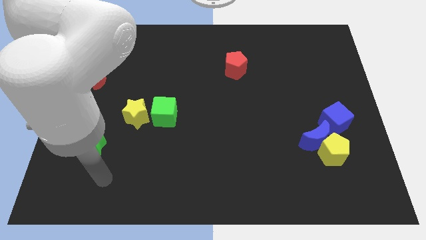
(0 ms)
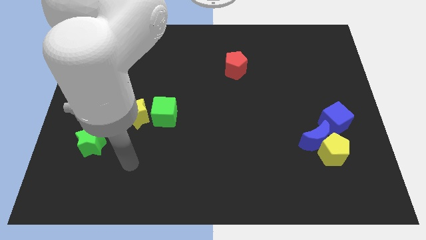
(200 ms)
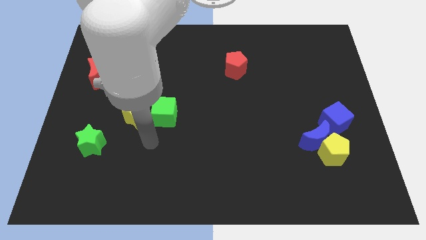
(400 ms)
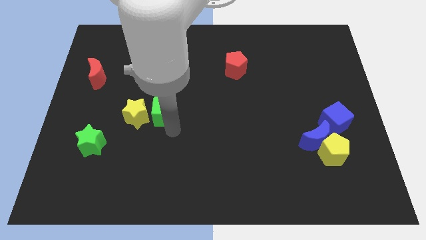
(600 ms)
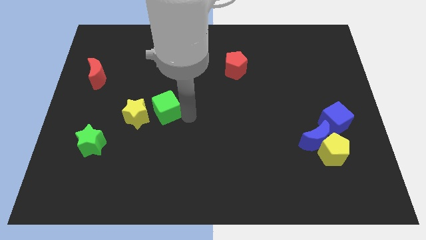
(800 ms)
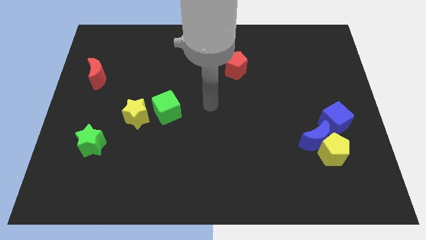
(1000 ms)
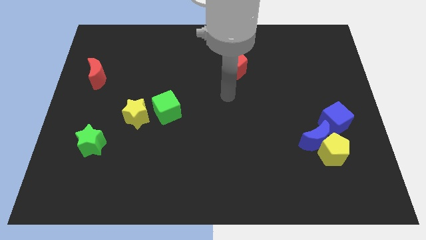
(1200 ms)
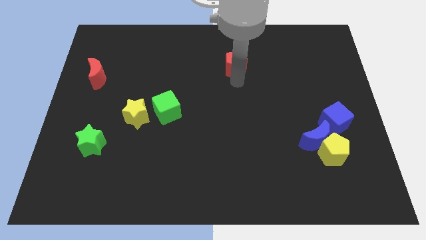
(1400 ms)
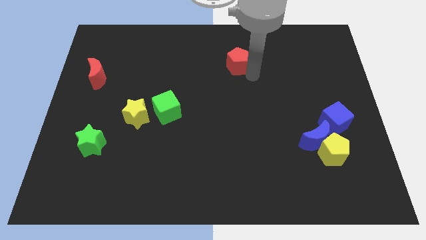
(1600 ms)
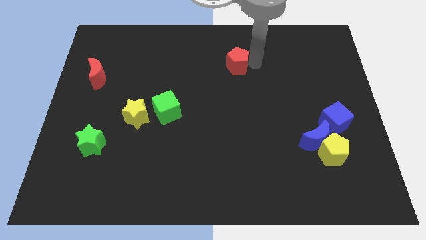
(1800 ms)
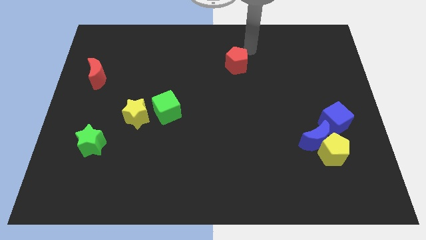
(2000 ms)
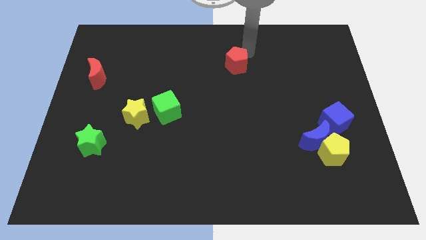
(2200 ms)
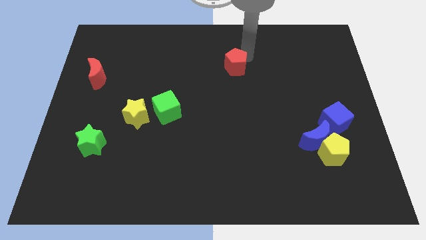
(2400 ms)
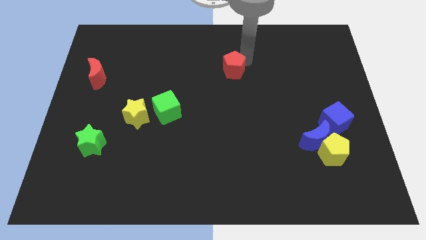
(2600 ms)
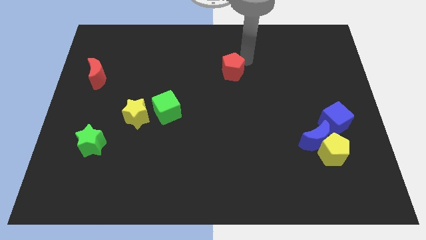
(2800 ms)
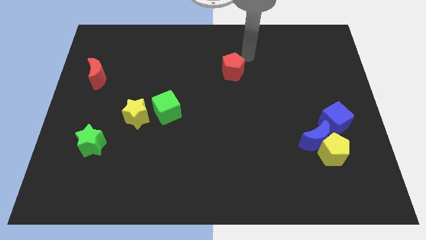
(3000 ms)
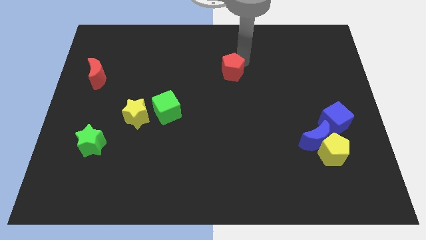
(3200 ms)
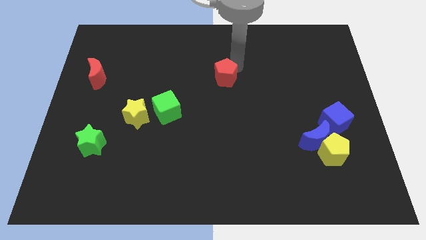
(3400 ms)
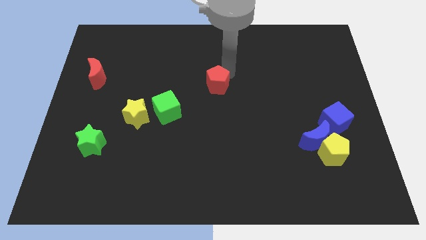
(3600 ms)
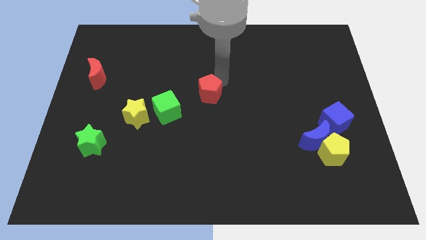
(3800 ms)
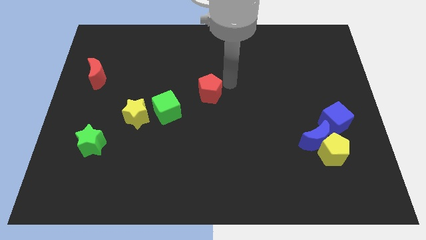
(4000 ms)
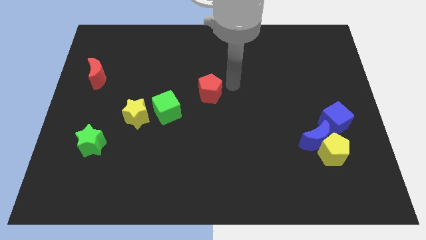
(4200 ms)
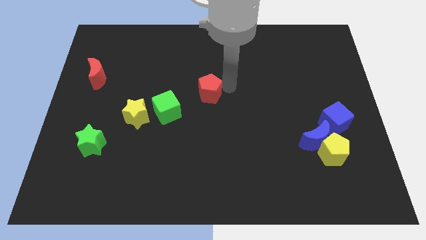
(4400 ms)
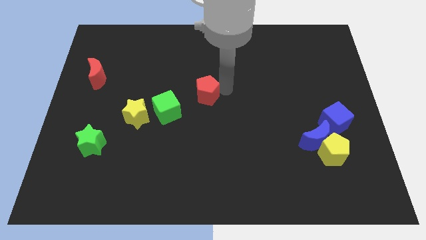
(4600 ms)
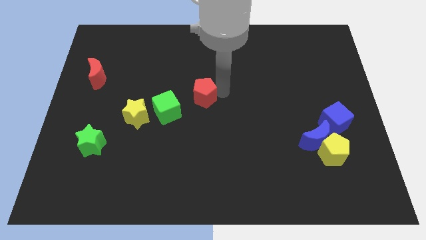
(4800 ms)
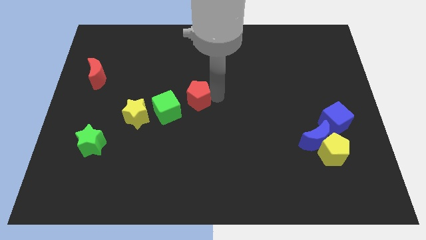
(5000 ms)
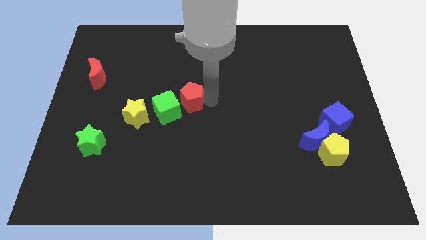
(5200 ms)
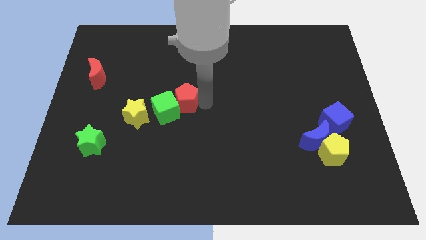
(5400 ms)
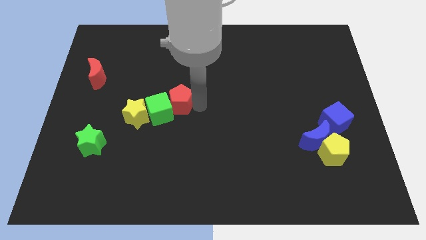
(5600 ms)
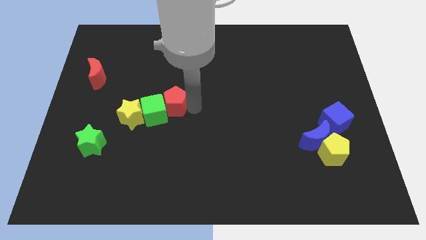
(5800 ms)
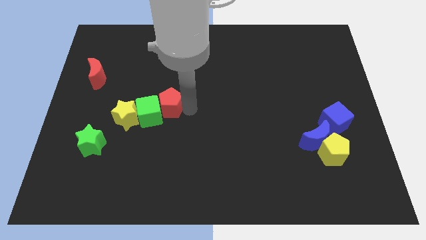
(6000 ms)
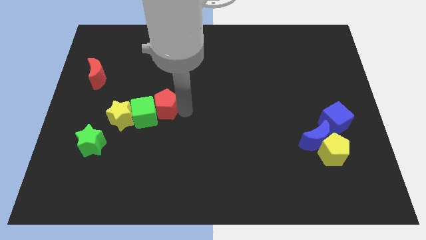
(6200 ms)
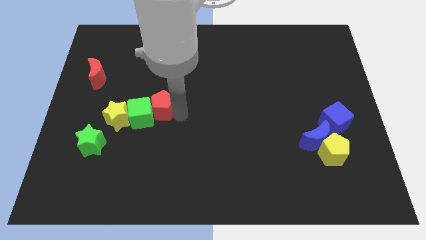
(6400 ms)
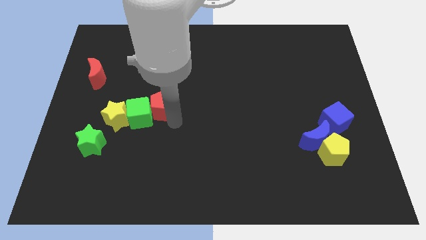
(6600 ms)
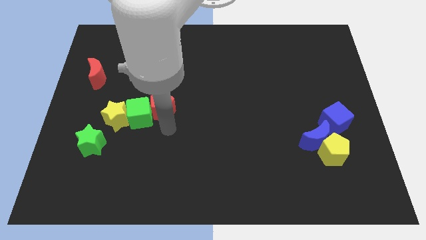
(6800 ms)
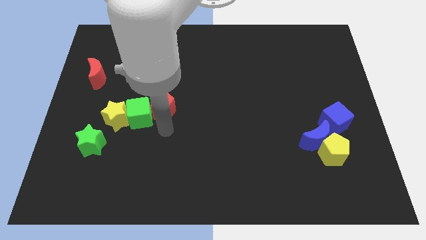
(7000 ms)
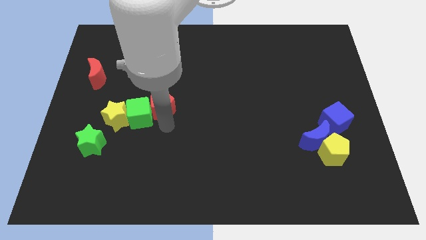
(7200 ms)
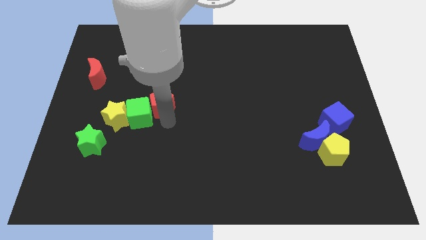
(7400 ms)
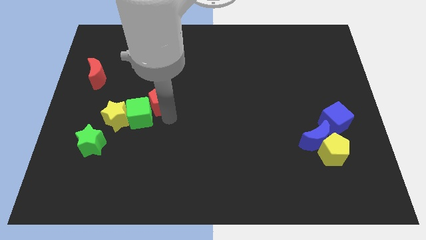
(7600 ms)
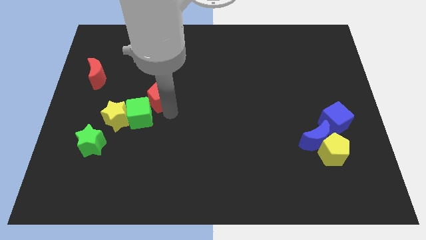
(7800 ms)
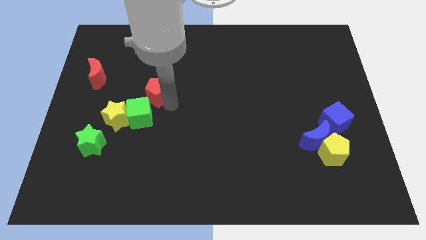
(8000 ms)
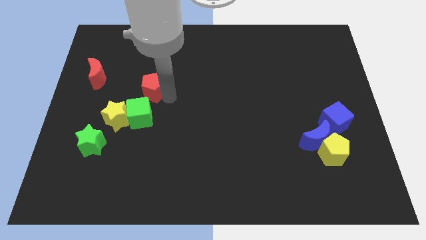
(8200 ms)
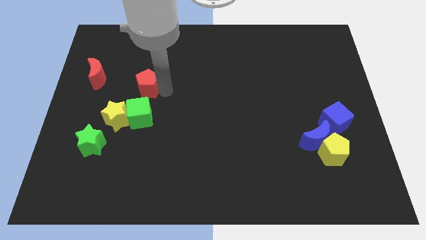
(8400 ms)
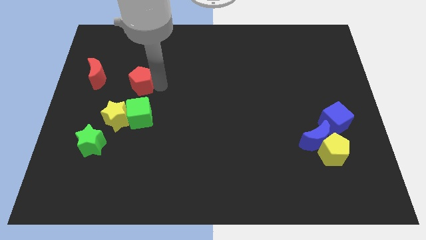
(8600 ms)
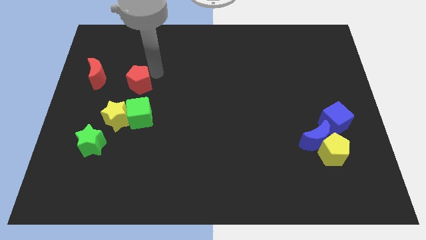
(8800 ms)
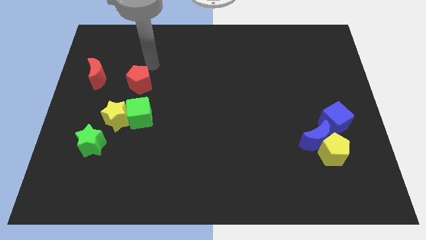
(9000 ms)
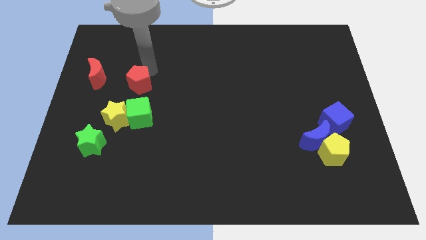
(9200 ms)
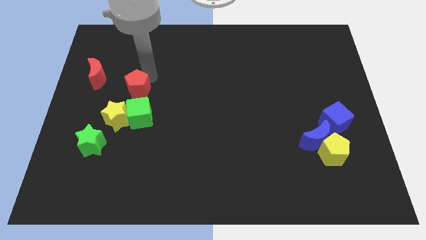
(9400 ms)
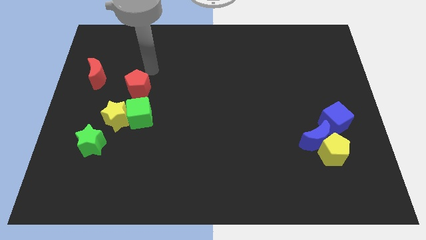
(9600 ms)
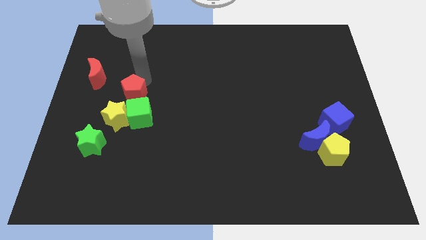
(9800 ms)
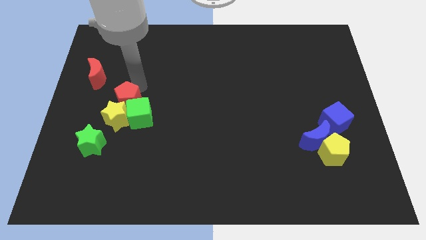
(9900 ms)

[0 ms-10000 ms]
slide the red pentagon towards the yellow star

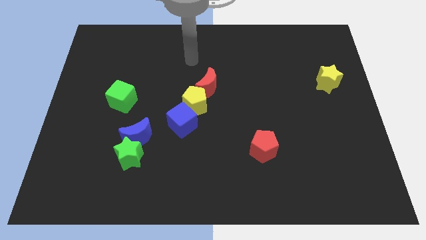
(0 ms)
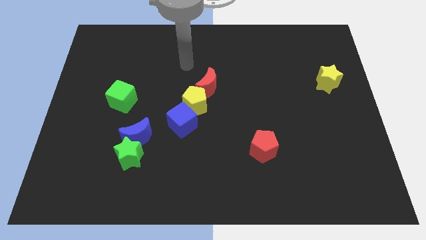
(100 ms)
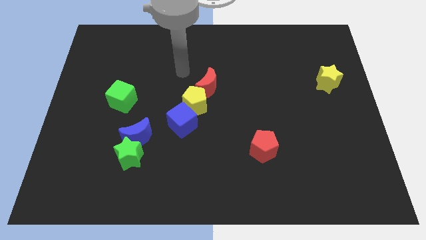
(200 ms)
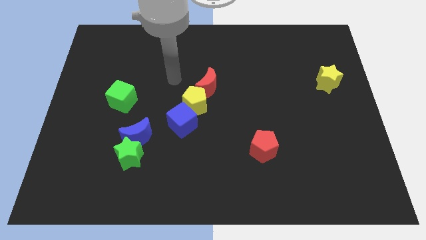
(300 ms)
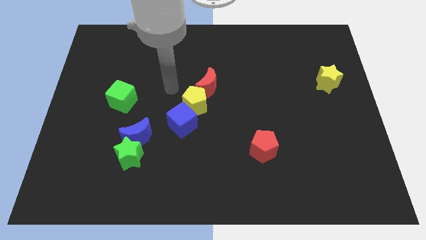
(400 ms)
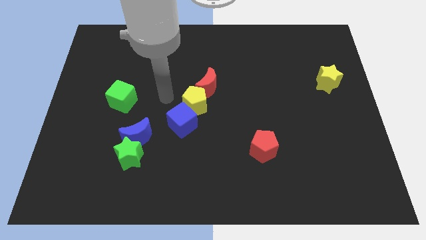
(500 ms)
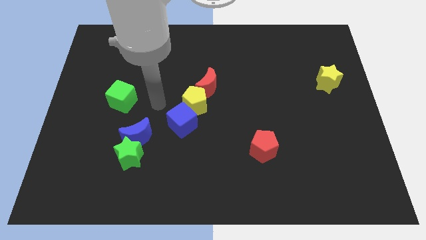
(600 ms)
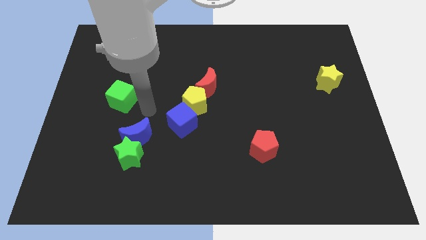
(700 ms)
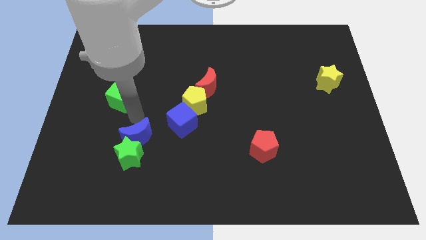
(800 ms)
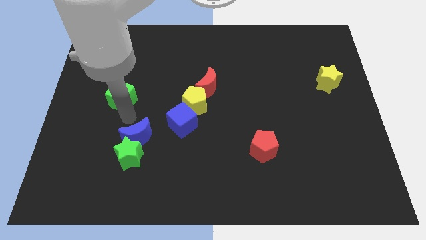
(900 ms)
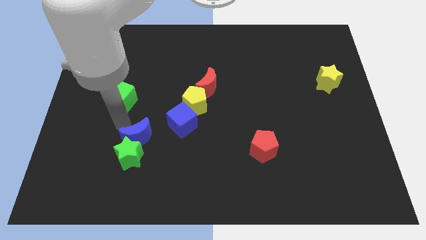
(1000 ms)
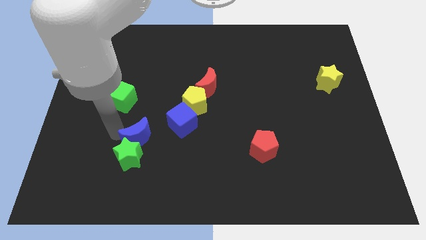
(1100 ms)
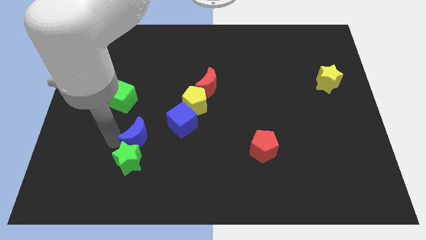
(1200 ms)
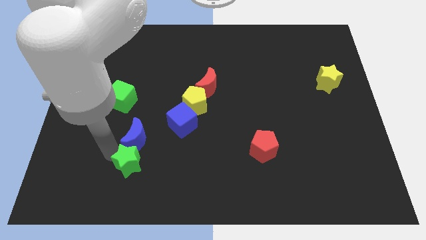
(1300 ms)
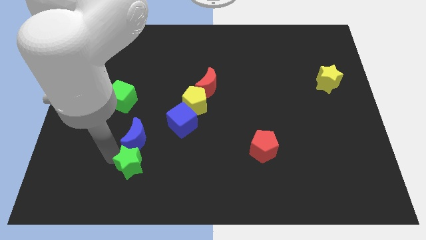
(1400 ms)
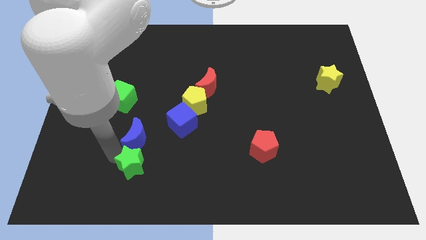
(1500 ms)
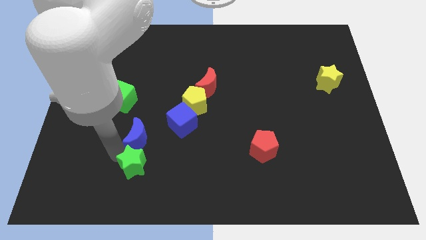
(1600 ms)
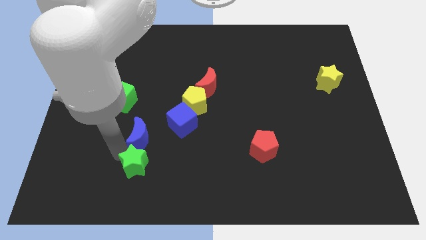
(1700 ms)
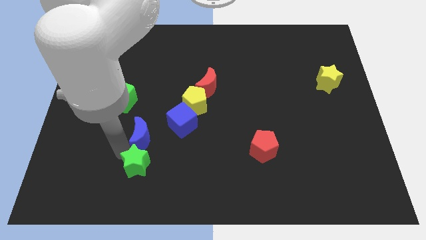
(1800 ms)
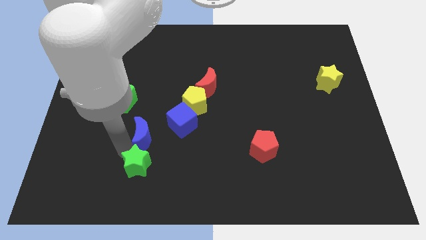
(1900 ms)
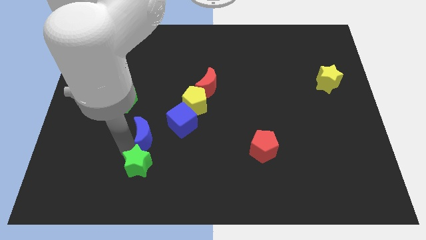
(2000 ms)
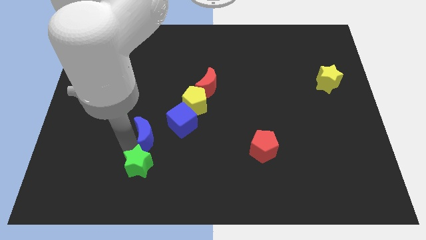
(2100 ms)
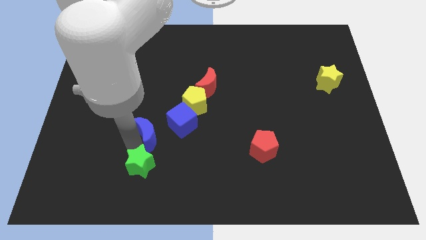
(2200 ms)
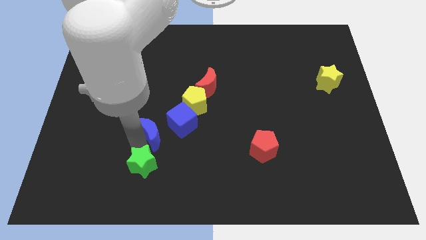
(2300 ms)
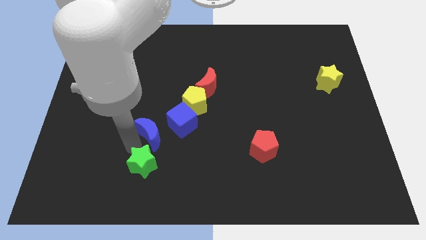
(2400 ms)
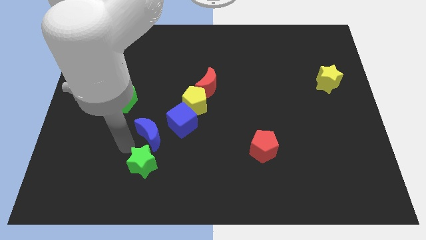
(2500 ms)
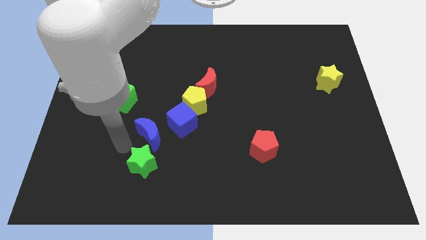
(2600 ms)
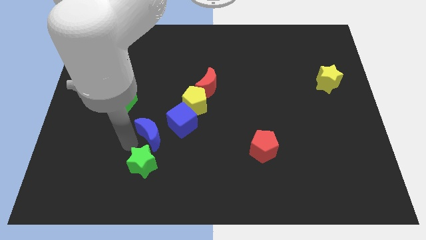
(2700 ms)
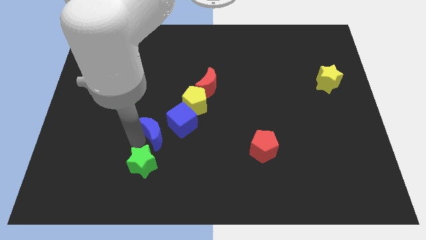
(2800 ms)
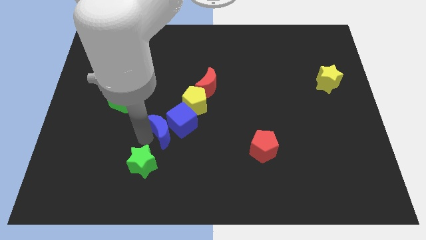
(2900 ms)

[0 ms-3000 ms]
move the blue moon to the blue cube
